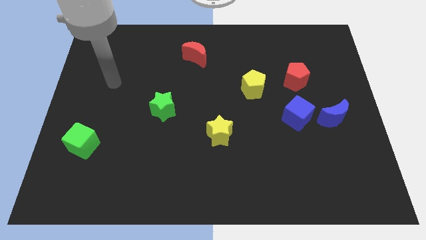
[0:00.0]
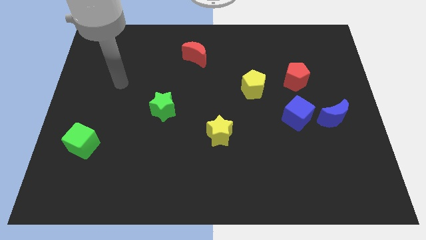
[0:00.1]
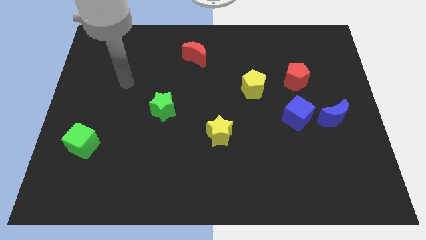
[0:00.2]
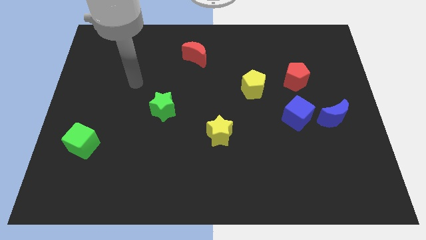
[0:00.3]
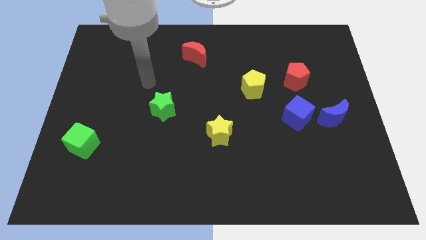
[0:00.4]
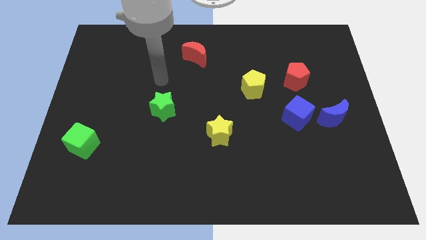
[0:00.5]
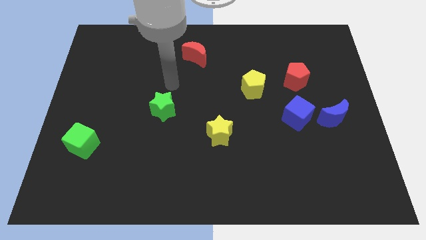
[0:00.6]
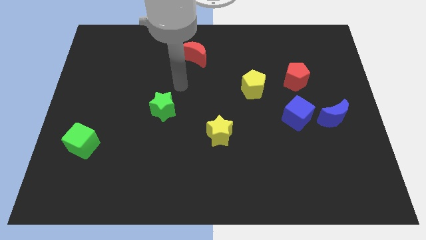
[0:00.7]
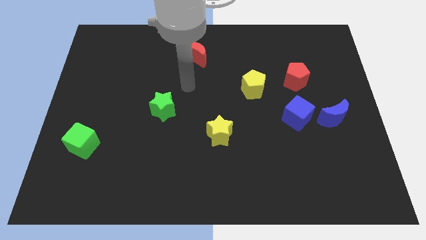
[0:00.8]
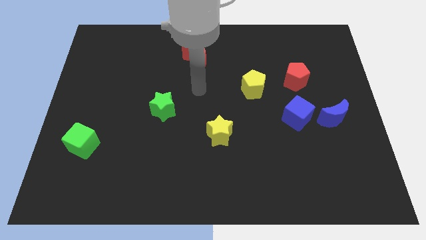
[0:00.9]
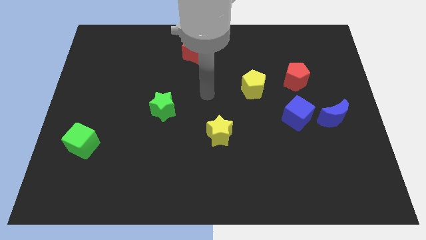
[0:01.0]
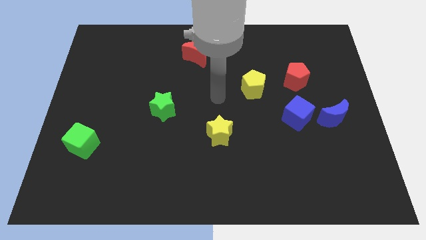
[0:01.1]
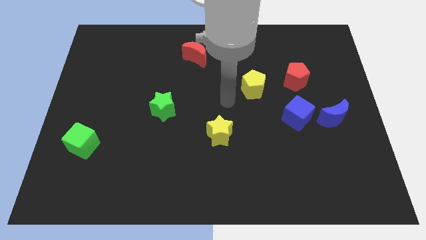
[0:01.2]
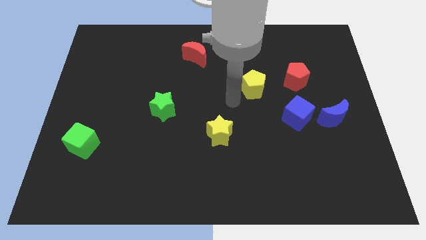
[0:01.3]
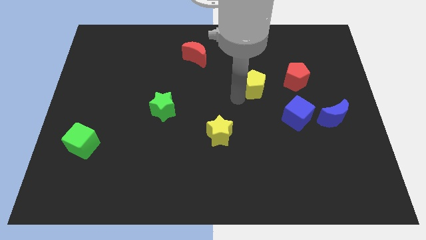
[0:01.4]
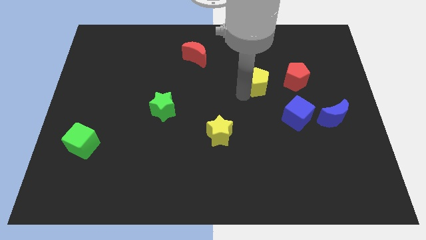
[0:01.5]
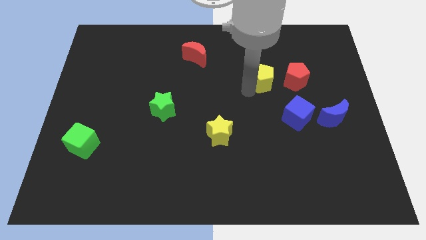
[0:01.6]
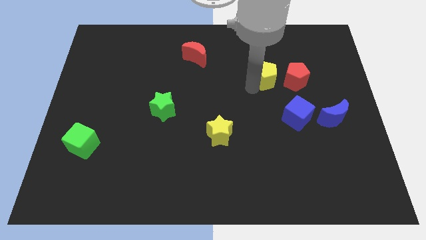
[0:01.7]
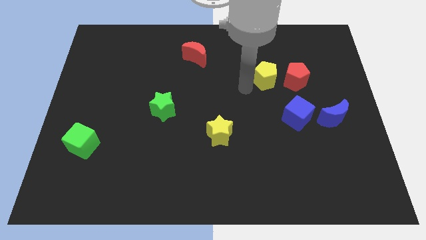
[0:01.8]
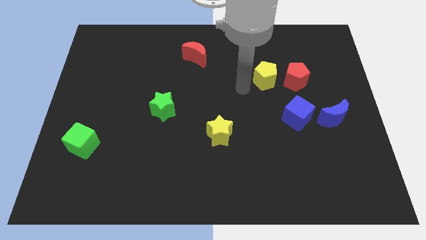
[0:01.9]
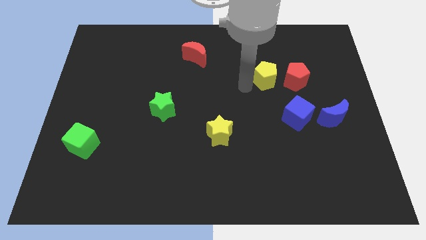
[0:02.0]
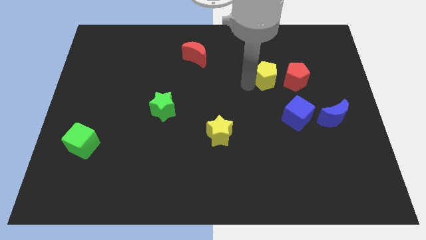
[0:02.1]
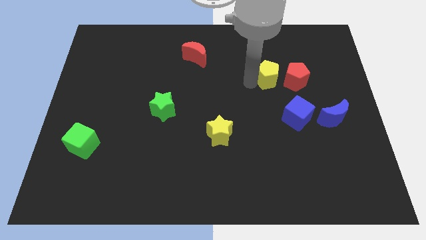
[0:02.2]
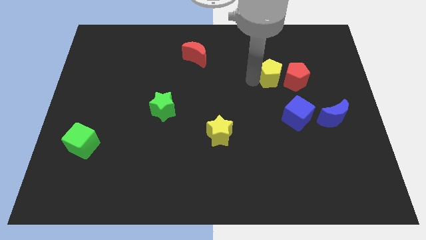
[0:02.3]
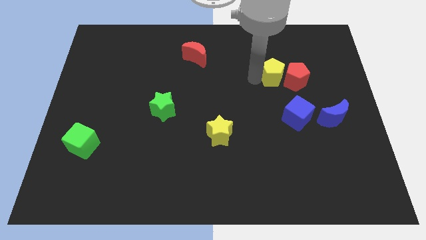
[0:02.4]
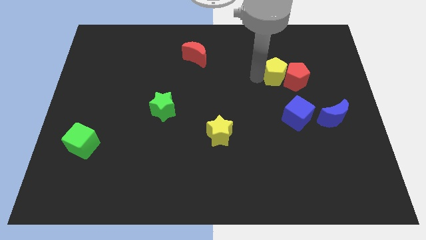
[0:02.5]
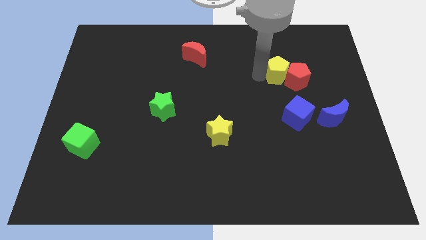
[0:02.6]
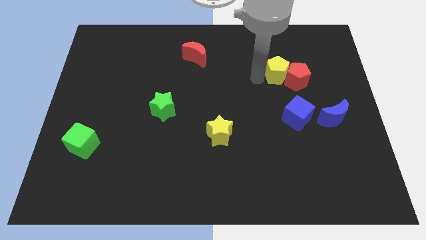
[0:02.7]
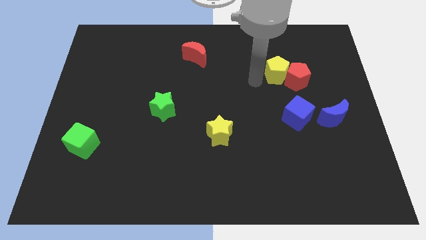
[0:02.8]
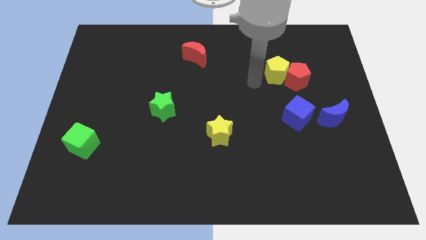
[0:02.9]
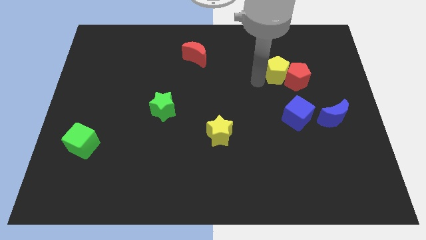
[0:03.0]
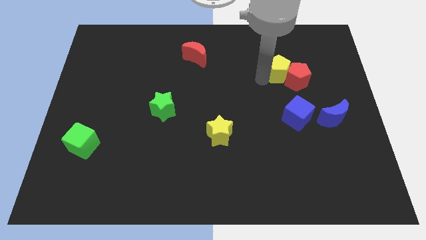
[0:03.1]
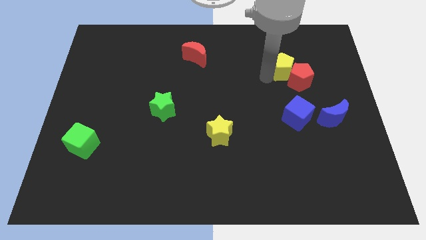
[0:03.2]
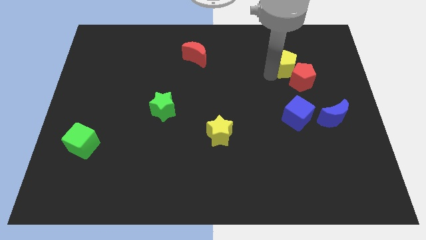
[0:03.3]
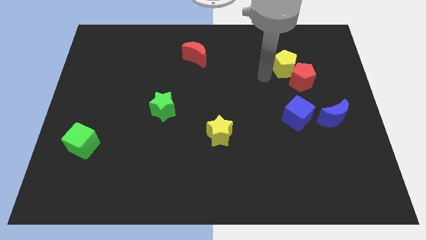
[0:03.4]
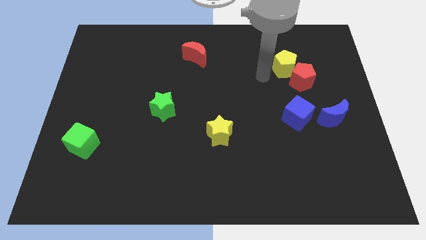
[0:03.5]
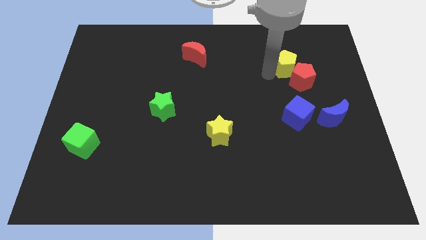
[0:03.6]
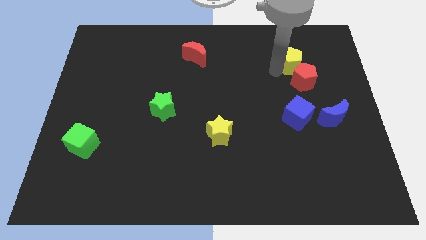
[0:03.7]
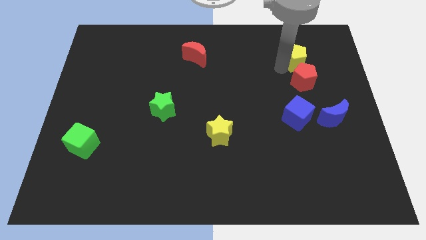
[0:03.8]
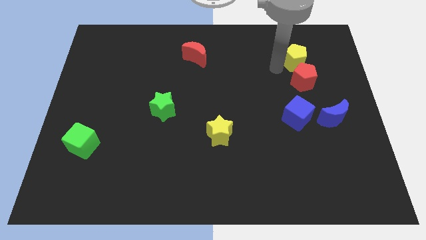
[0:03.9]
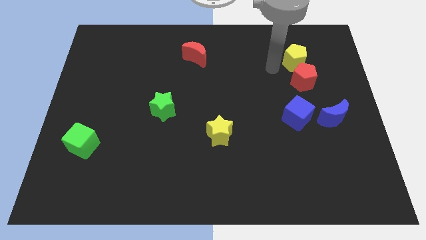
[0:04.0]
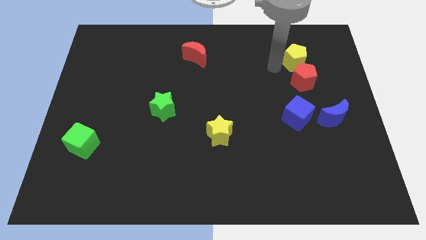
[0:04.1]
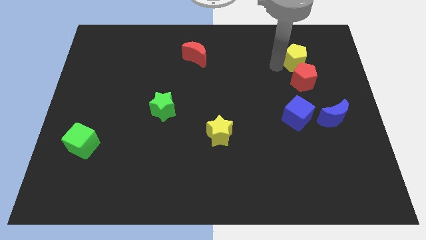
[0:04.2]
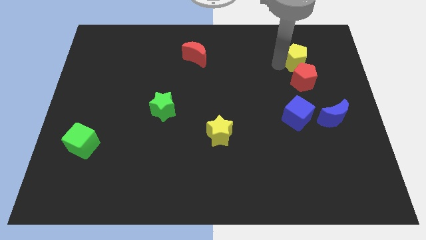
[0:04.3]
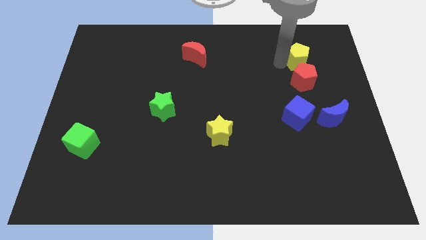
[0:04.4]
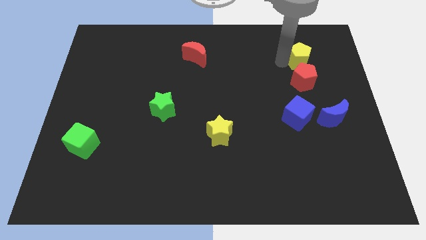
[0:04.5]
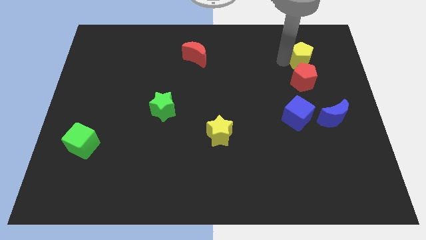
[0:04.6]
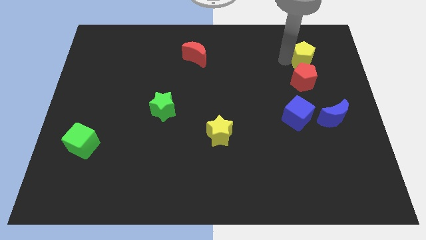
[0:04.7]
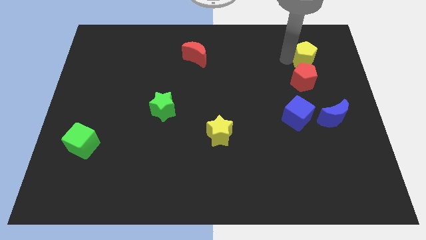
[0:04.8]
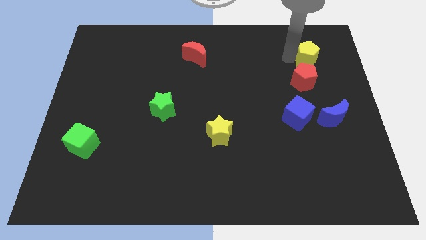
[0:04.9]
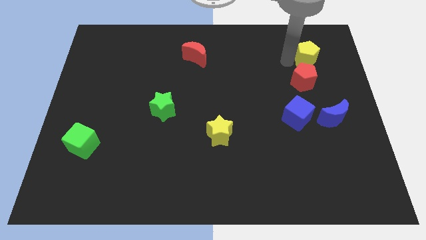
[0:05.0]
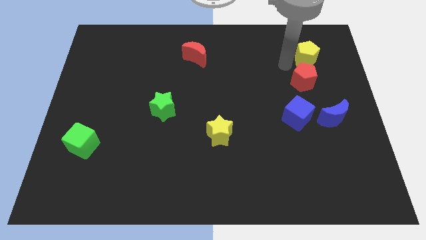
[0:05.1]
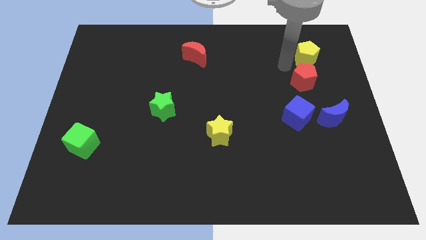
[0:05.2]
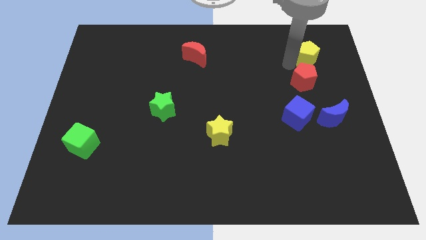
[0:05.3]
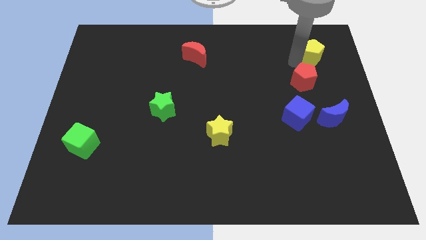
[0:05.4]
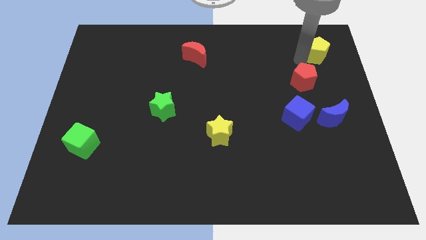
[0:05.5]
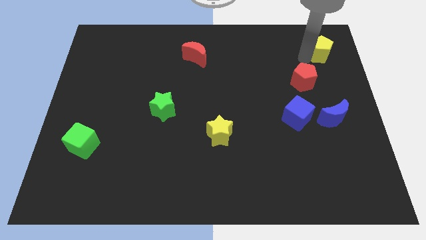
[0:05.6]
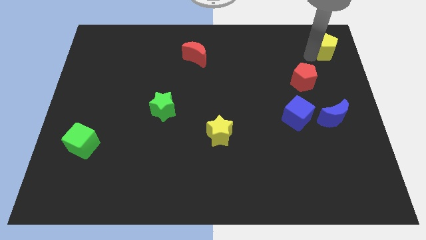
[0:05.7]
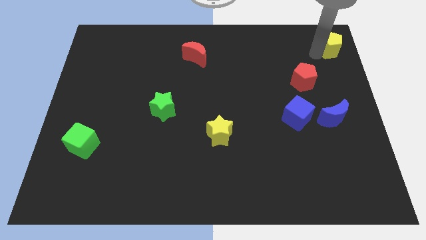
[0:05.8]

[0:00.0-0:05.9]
move the yellow pentagon to the upper right corner

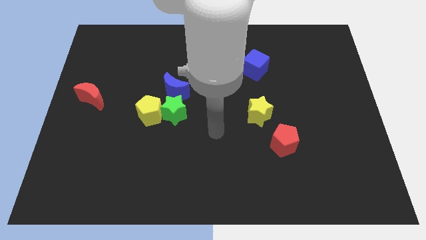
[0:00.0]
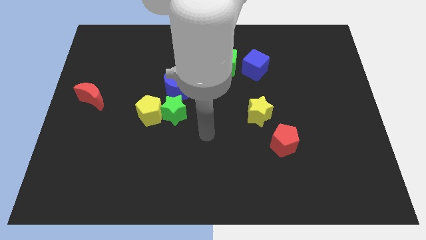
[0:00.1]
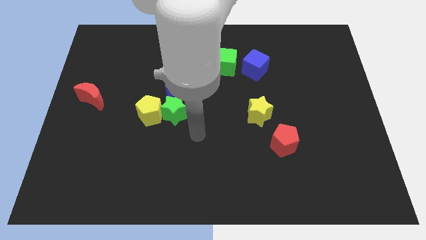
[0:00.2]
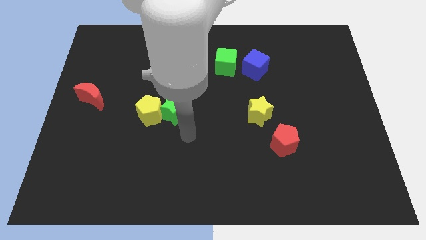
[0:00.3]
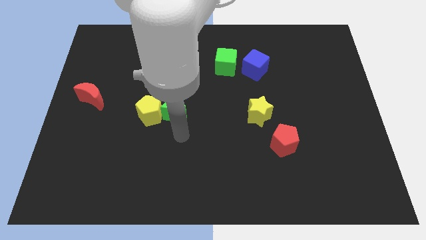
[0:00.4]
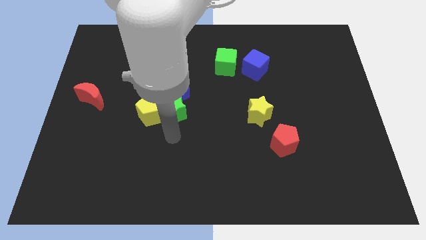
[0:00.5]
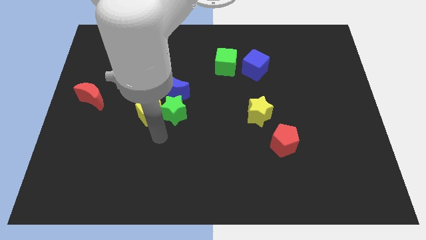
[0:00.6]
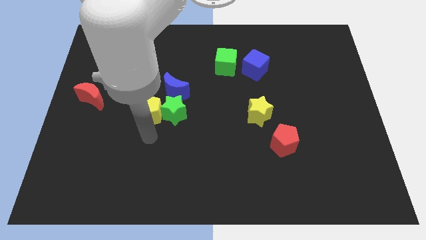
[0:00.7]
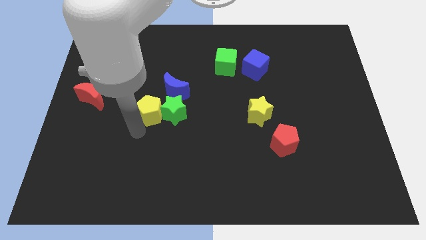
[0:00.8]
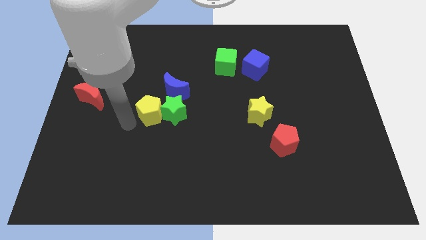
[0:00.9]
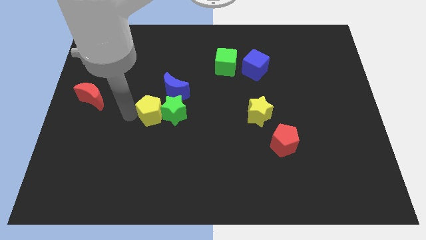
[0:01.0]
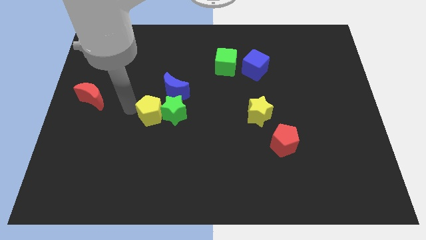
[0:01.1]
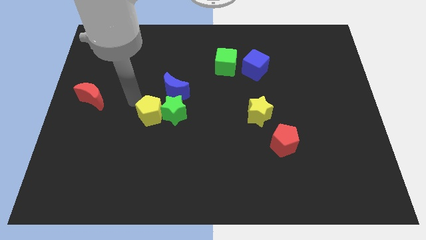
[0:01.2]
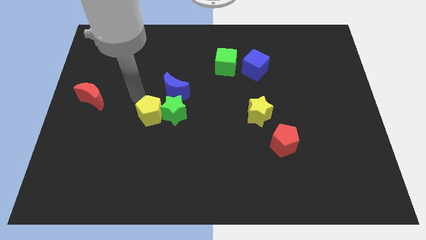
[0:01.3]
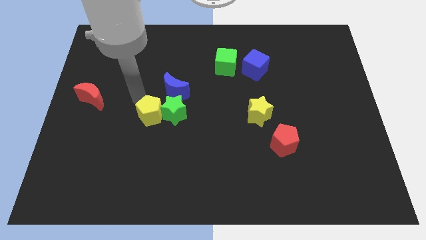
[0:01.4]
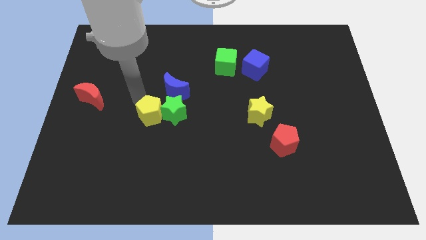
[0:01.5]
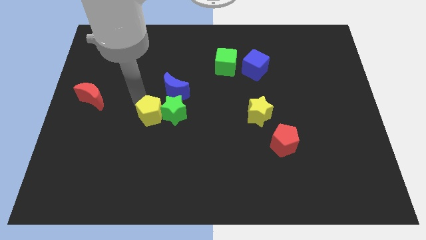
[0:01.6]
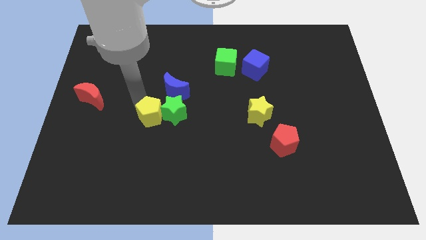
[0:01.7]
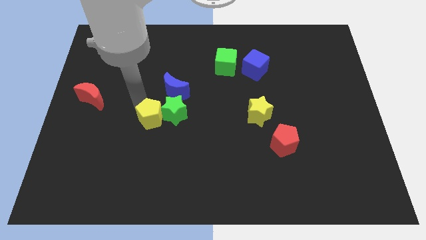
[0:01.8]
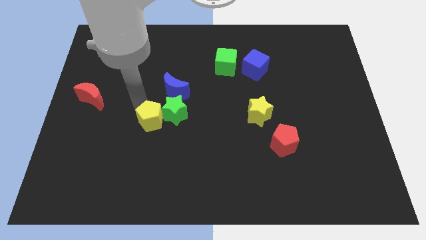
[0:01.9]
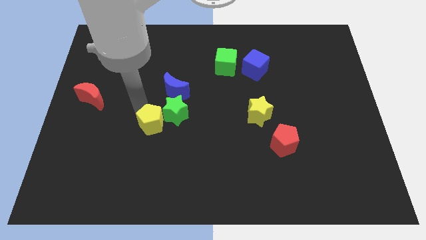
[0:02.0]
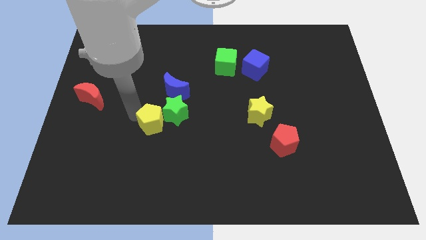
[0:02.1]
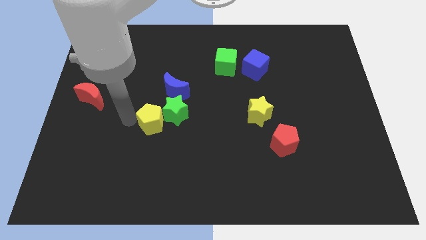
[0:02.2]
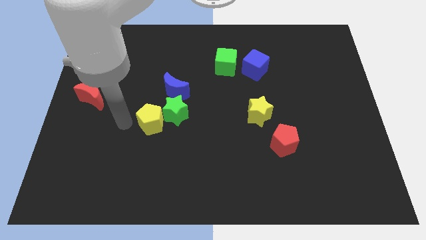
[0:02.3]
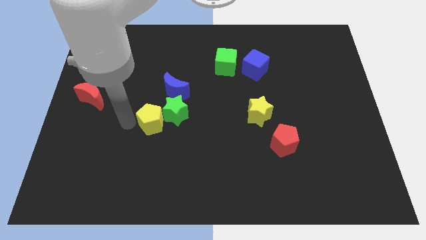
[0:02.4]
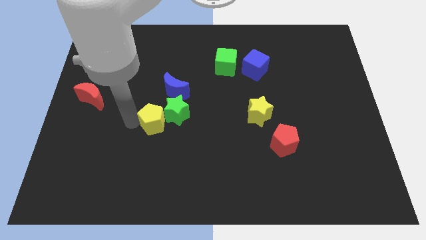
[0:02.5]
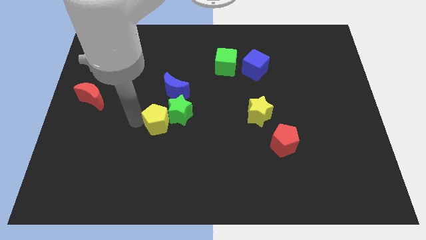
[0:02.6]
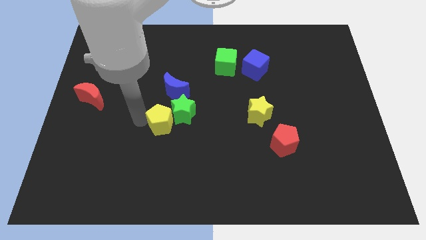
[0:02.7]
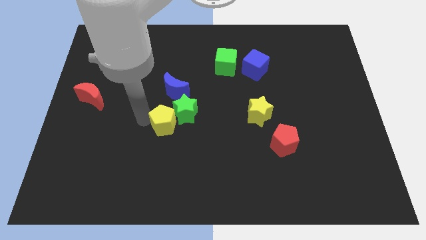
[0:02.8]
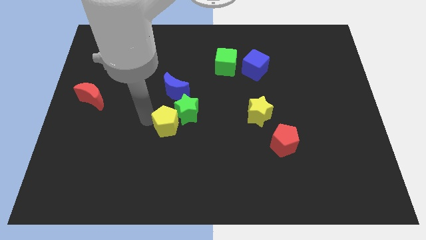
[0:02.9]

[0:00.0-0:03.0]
slide the yellow pentagon to the center
